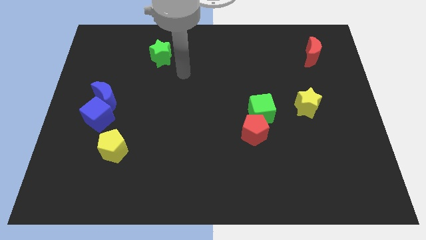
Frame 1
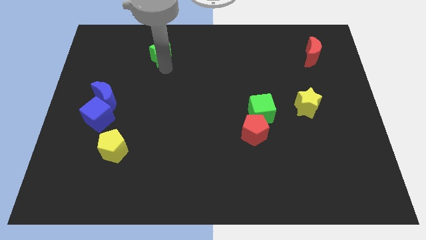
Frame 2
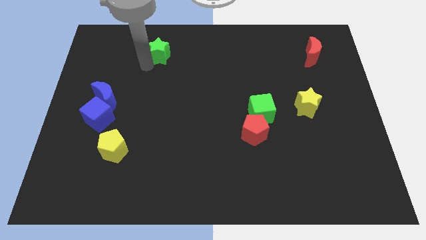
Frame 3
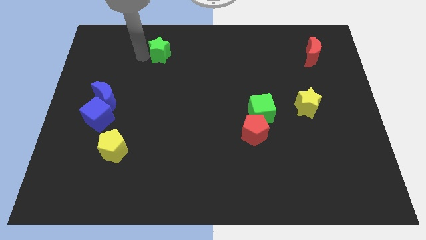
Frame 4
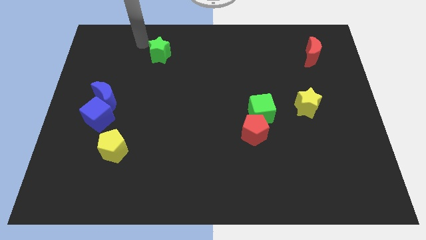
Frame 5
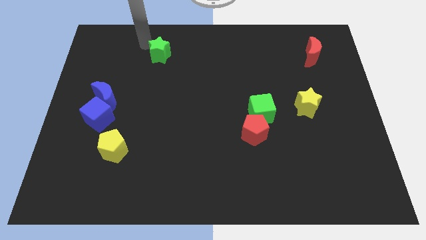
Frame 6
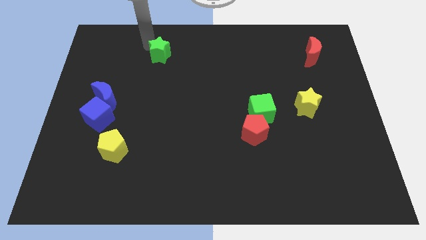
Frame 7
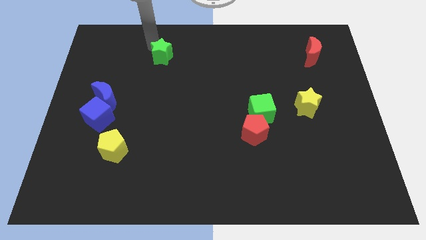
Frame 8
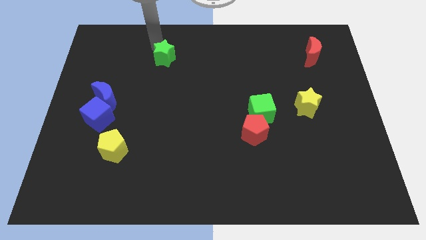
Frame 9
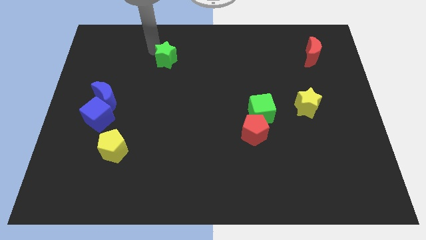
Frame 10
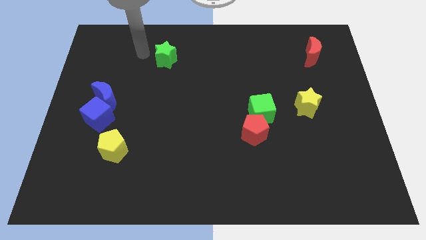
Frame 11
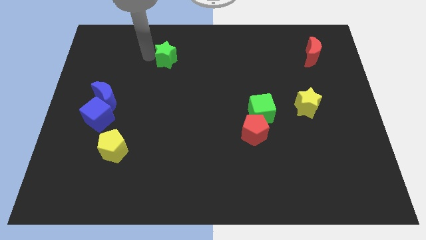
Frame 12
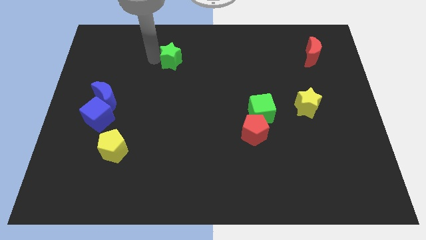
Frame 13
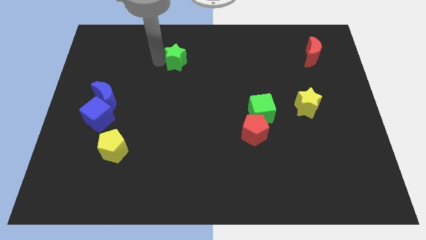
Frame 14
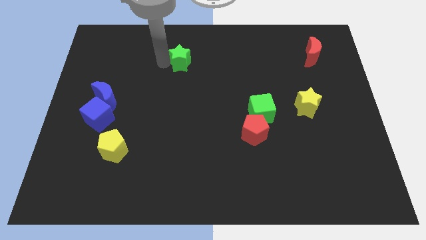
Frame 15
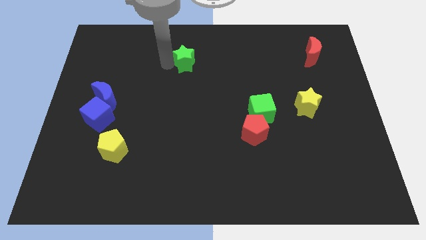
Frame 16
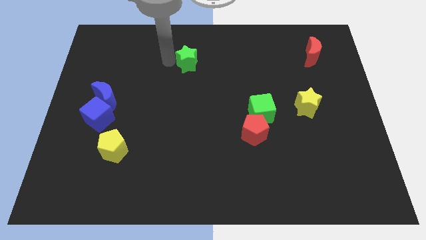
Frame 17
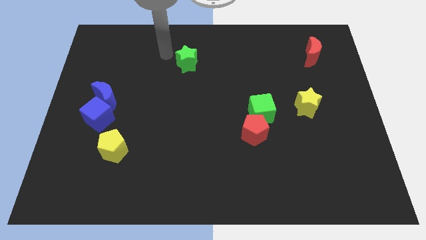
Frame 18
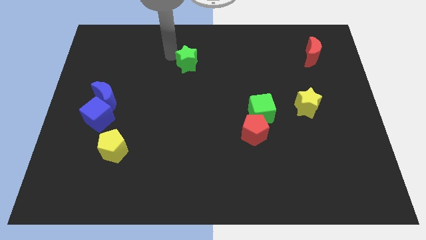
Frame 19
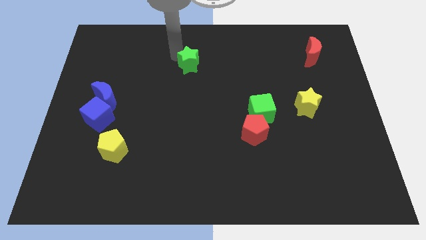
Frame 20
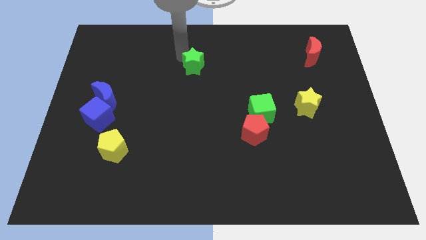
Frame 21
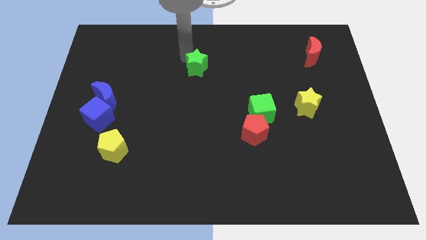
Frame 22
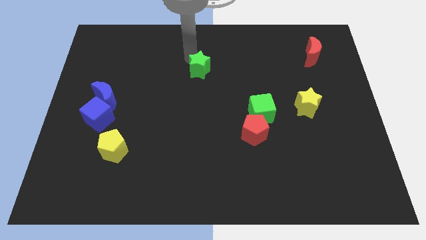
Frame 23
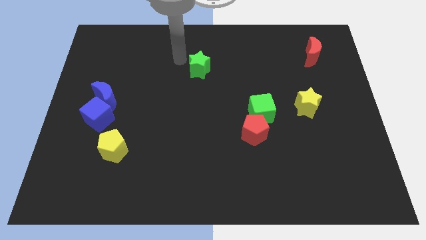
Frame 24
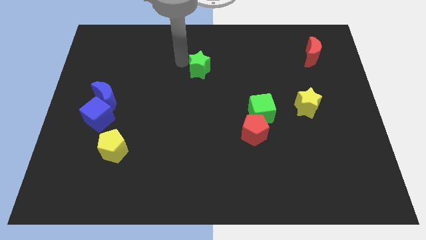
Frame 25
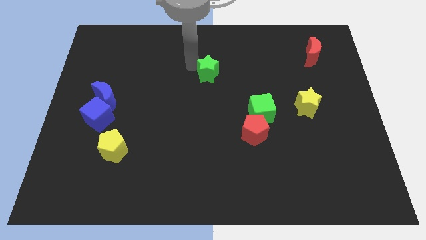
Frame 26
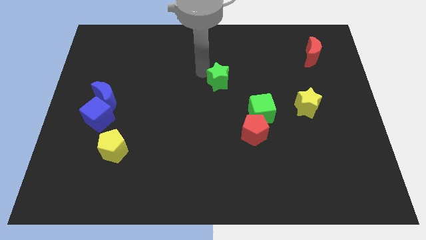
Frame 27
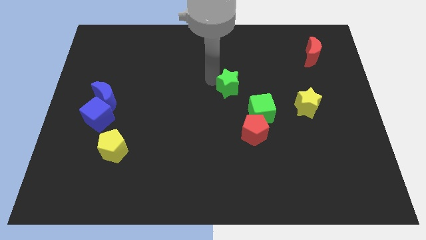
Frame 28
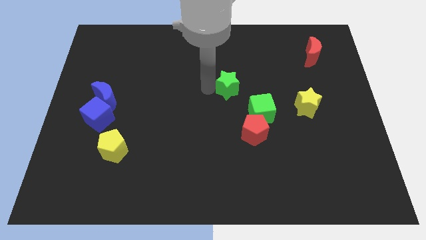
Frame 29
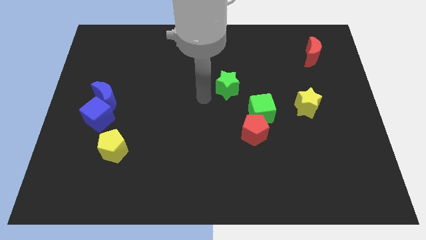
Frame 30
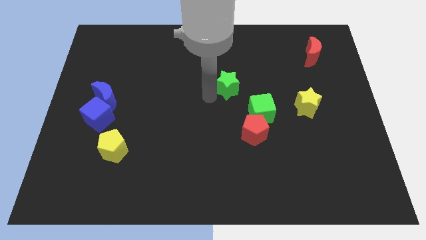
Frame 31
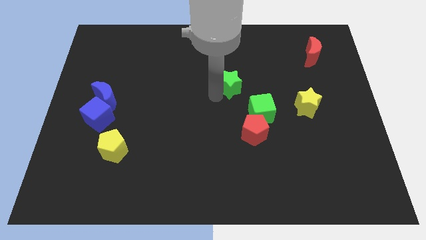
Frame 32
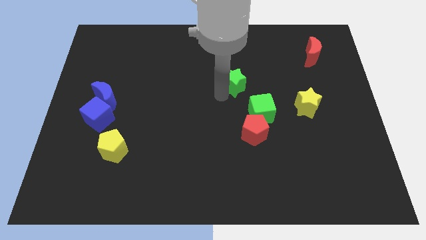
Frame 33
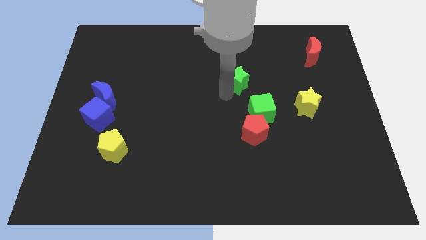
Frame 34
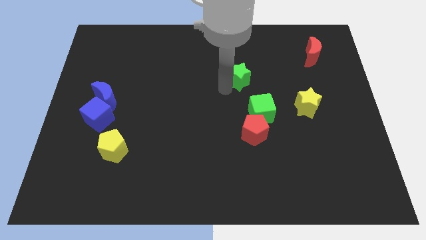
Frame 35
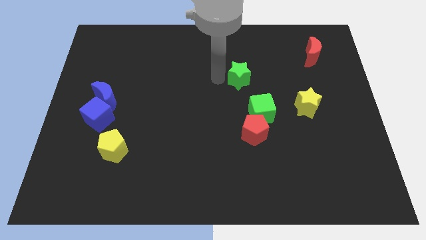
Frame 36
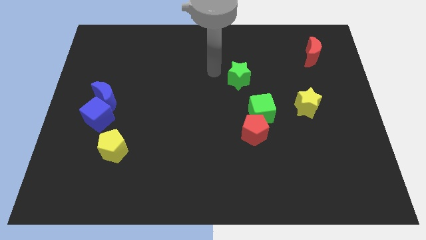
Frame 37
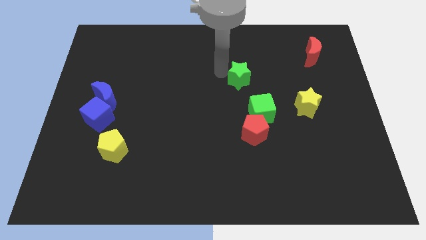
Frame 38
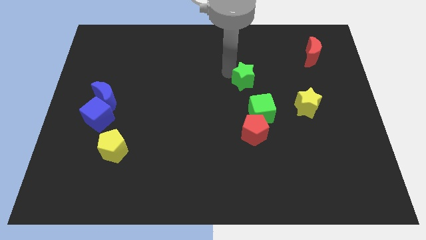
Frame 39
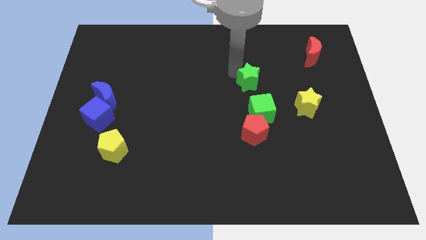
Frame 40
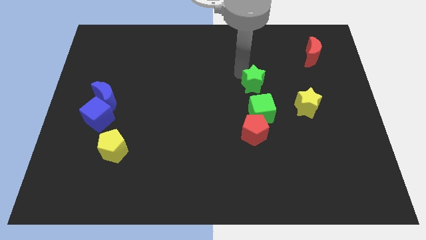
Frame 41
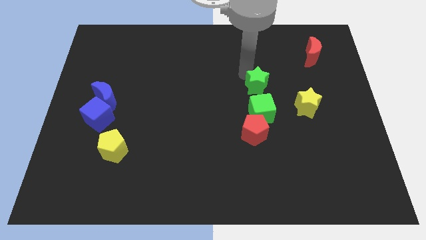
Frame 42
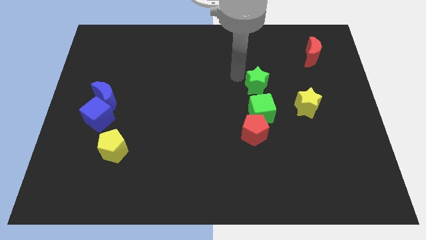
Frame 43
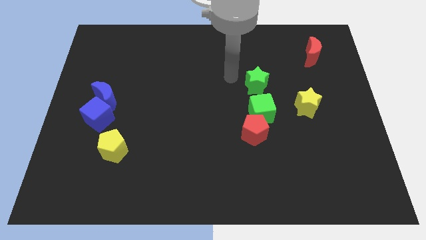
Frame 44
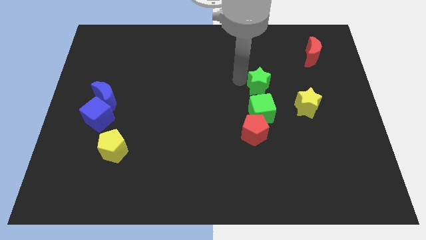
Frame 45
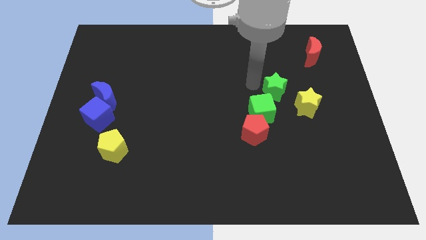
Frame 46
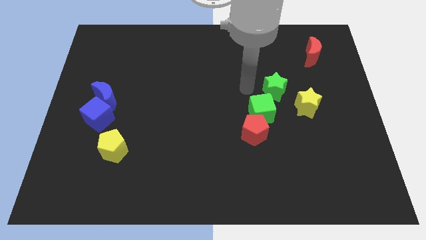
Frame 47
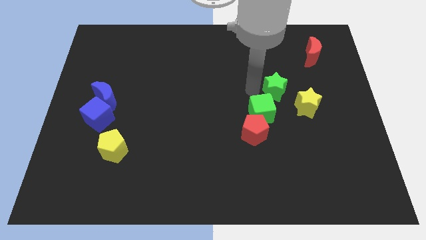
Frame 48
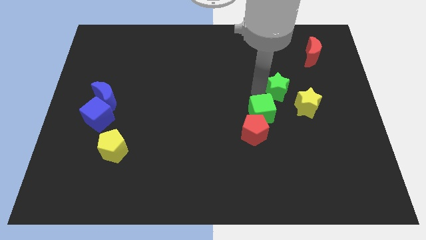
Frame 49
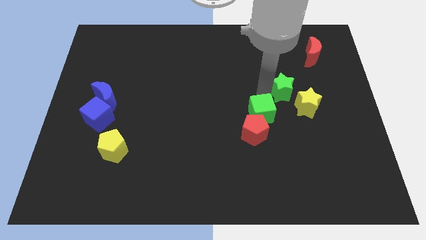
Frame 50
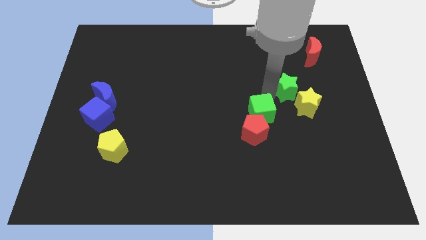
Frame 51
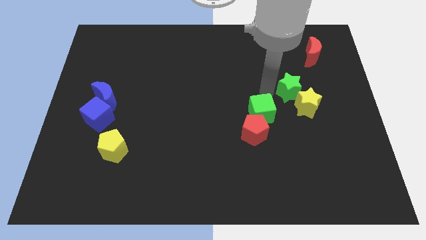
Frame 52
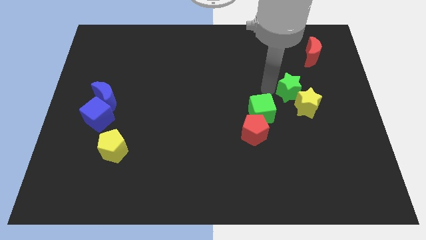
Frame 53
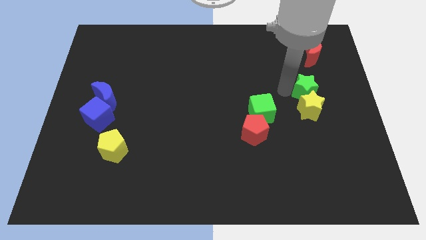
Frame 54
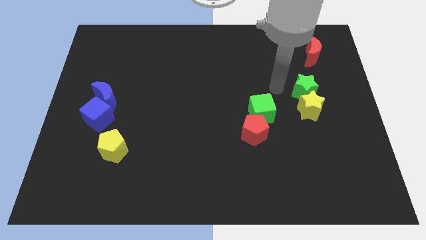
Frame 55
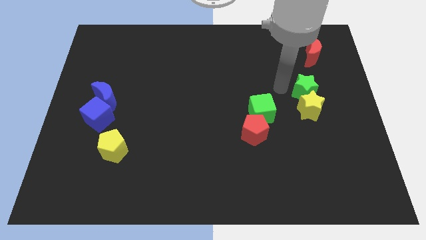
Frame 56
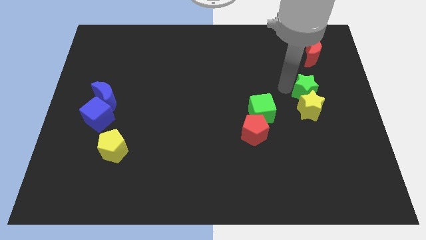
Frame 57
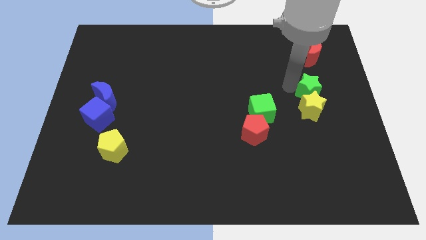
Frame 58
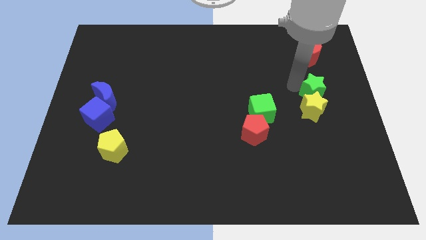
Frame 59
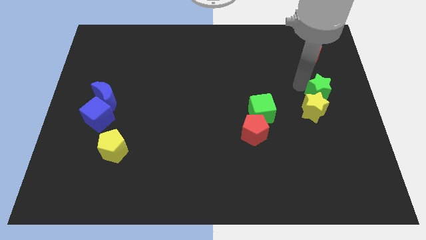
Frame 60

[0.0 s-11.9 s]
move the green star to the right side
